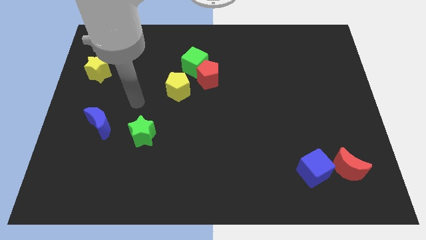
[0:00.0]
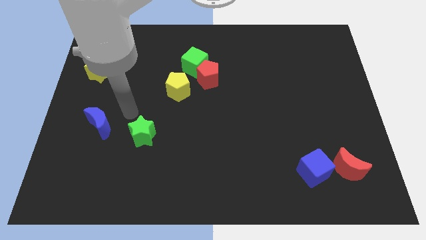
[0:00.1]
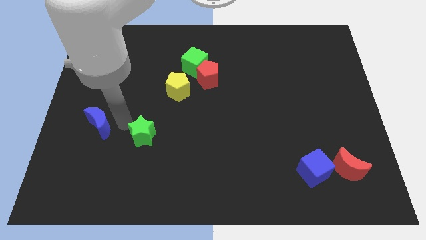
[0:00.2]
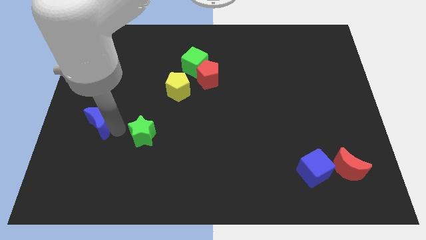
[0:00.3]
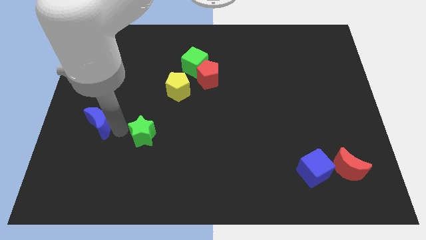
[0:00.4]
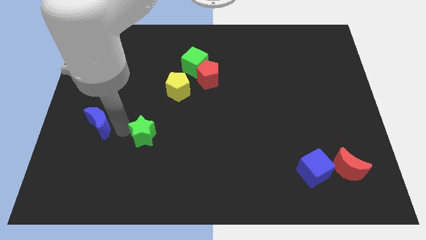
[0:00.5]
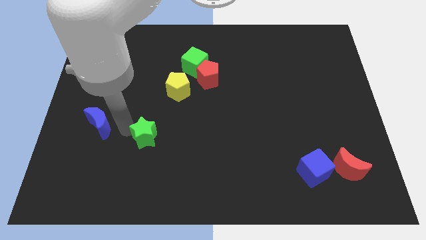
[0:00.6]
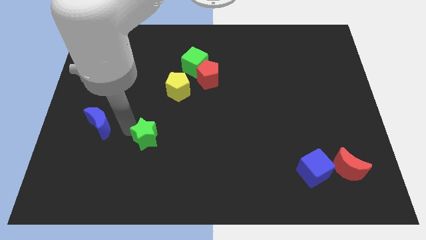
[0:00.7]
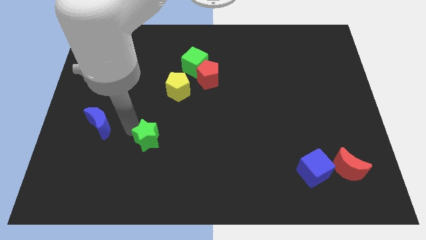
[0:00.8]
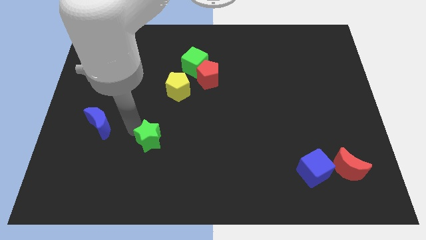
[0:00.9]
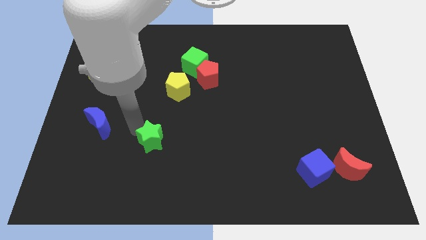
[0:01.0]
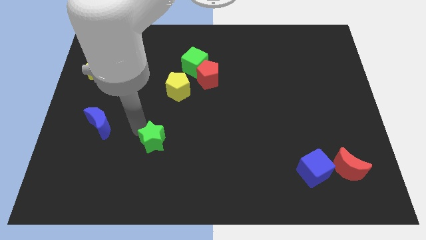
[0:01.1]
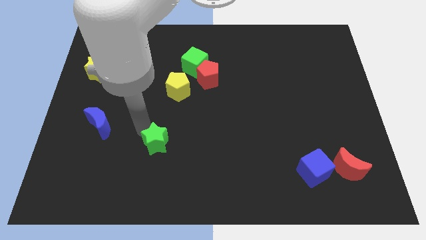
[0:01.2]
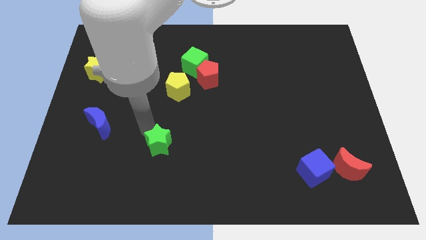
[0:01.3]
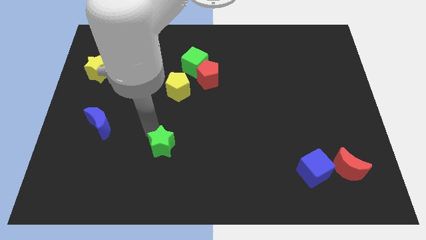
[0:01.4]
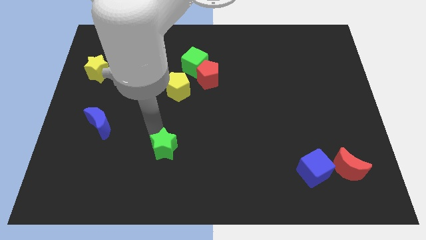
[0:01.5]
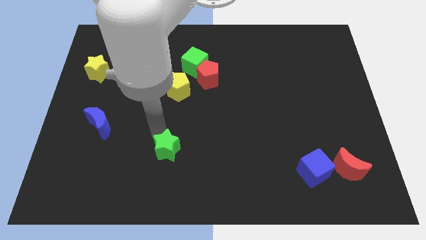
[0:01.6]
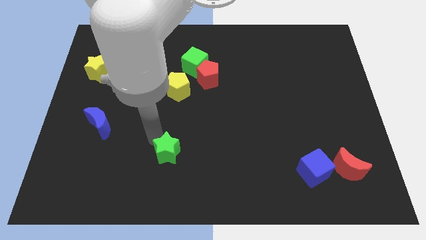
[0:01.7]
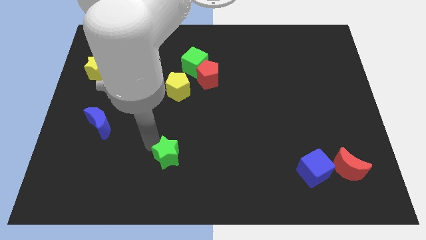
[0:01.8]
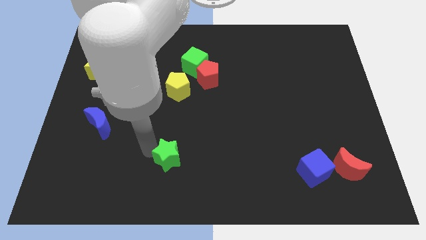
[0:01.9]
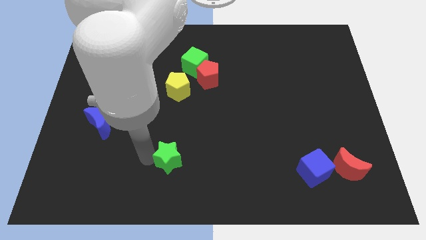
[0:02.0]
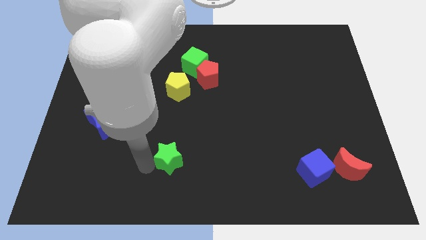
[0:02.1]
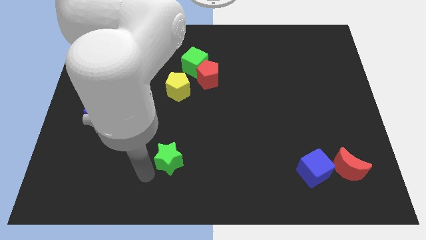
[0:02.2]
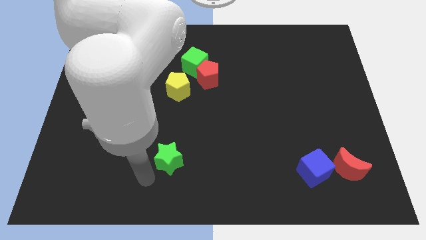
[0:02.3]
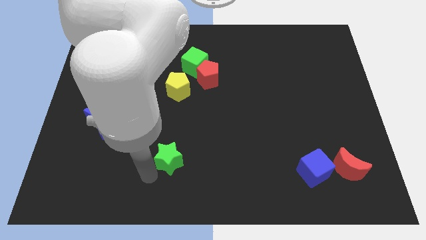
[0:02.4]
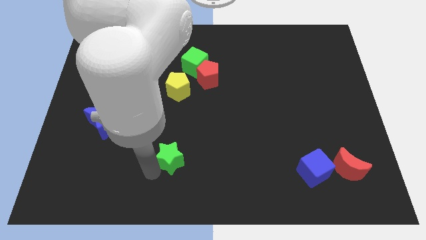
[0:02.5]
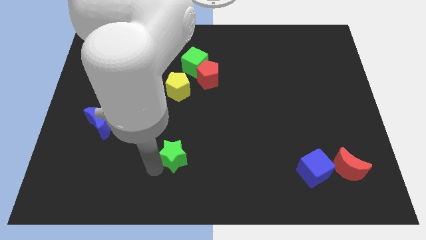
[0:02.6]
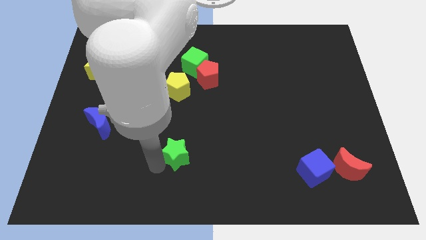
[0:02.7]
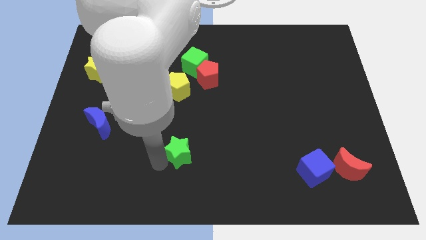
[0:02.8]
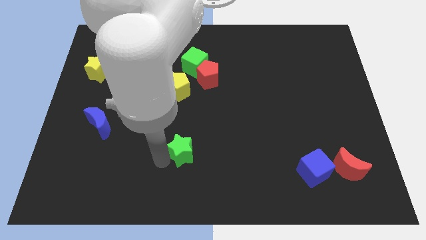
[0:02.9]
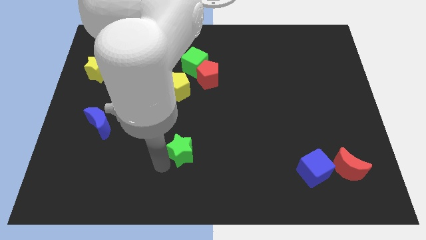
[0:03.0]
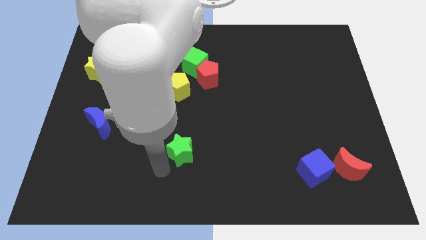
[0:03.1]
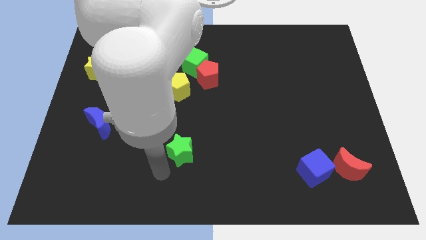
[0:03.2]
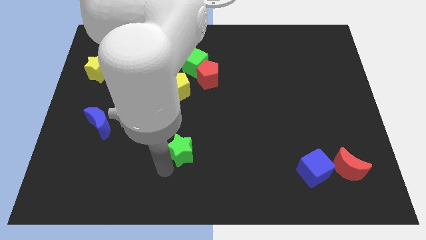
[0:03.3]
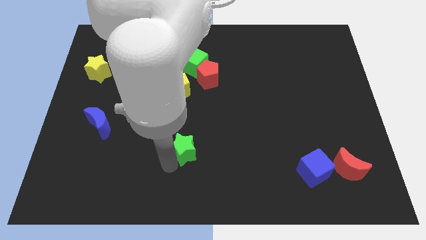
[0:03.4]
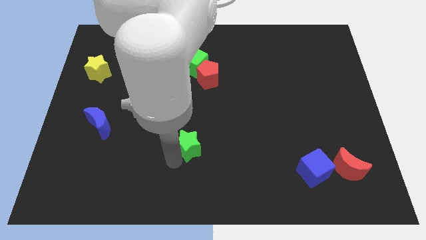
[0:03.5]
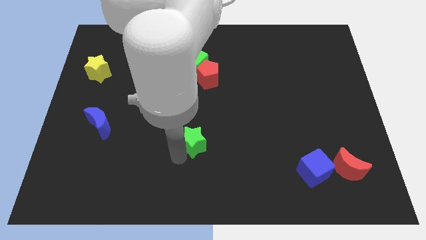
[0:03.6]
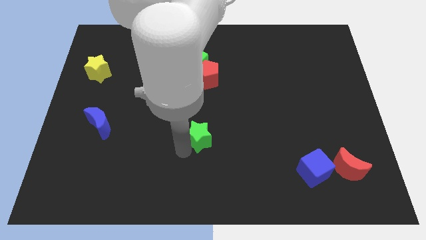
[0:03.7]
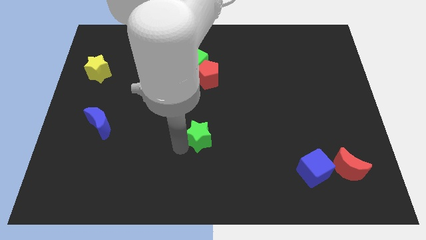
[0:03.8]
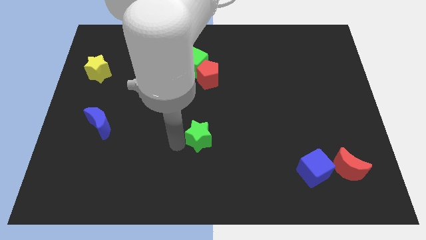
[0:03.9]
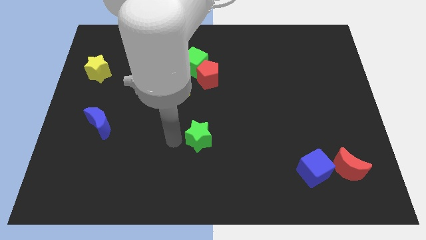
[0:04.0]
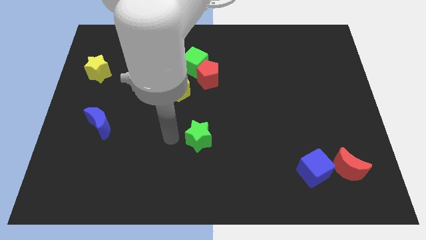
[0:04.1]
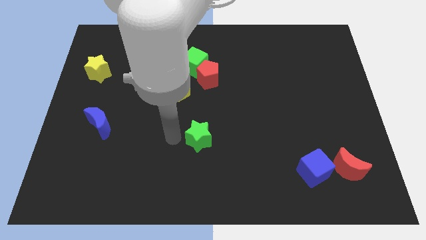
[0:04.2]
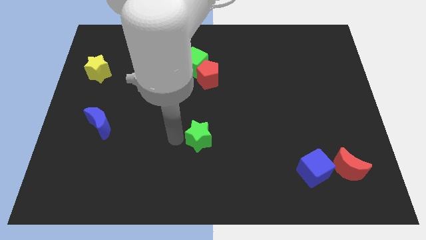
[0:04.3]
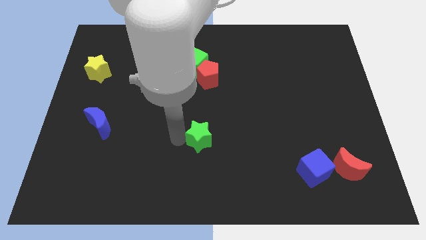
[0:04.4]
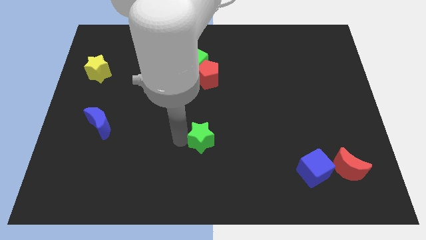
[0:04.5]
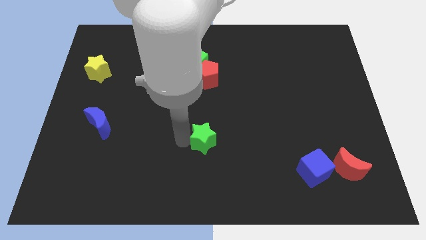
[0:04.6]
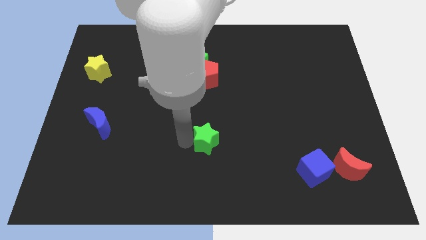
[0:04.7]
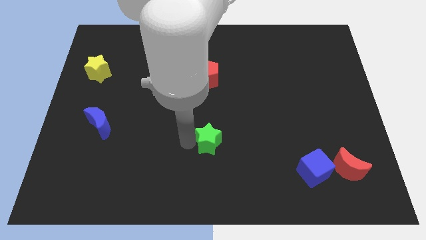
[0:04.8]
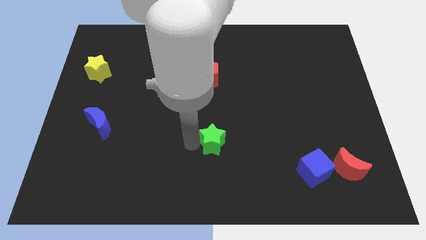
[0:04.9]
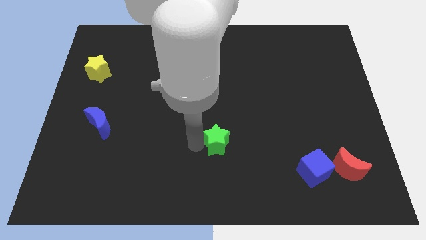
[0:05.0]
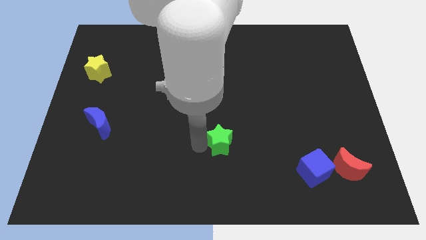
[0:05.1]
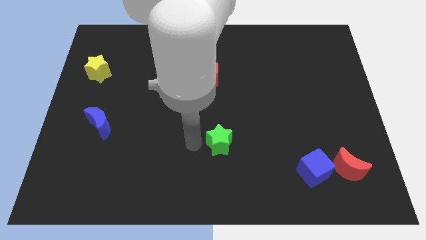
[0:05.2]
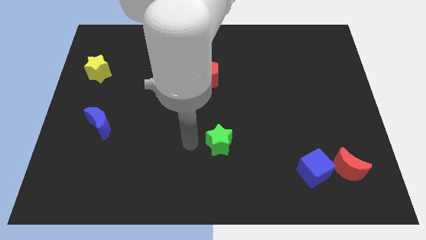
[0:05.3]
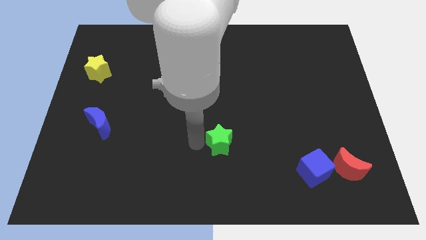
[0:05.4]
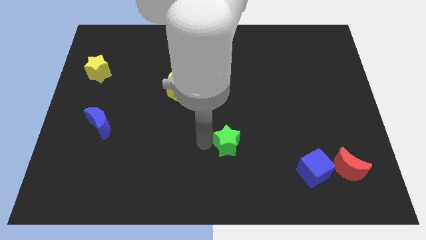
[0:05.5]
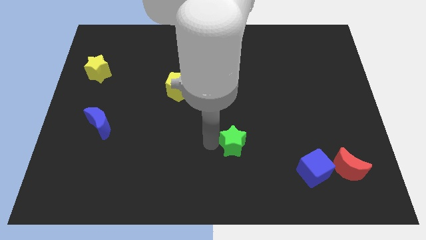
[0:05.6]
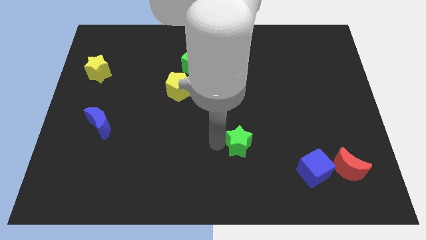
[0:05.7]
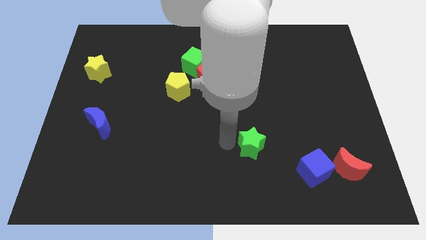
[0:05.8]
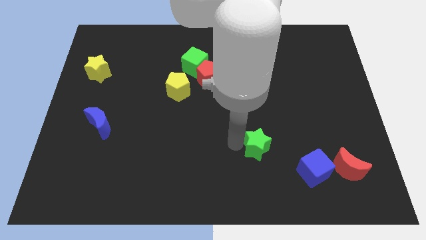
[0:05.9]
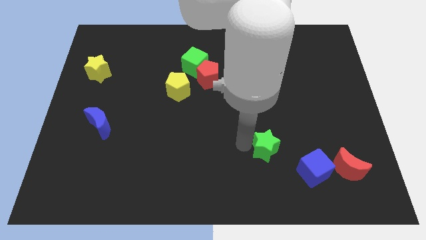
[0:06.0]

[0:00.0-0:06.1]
put the green star diagonally up and to the left of the blue cube
